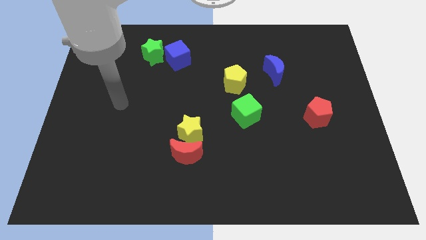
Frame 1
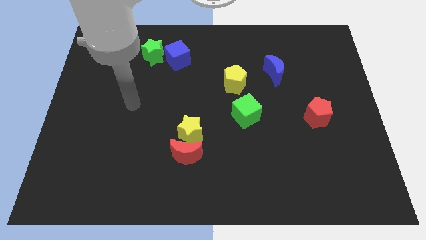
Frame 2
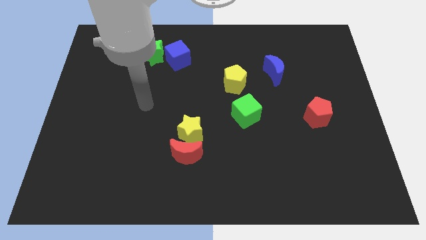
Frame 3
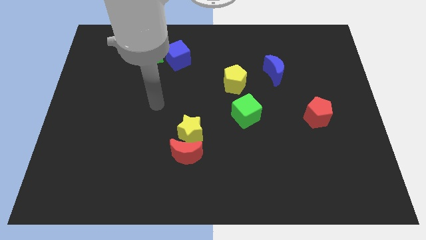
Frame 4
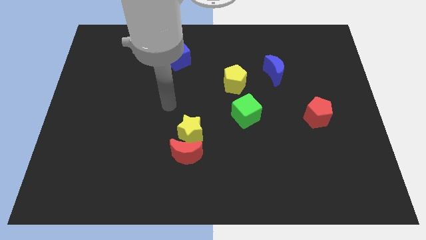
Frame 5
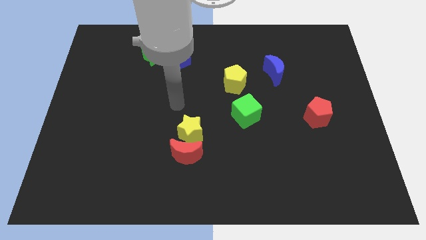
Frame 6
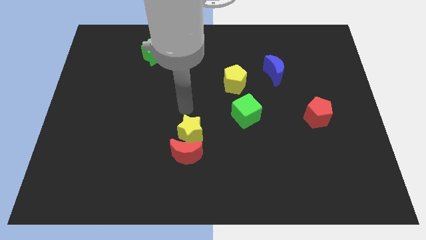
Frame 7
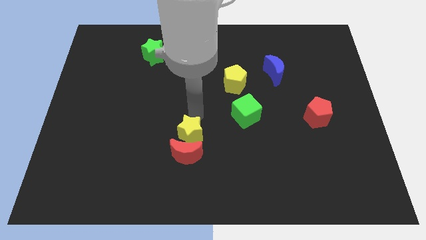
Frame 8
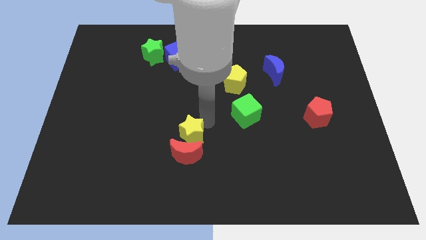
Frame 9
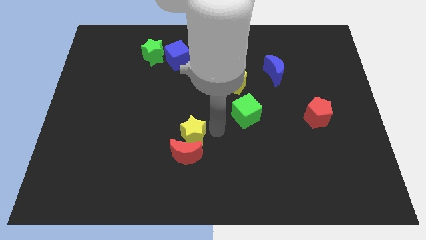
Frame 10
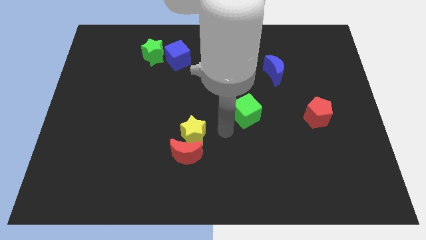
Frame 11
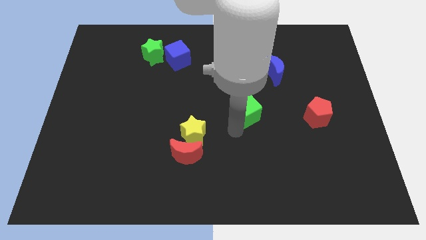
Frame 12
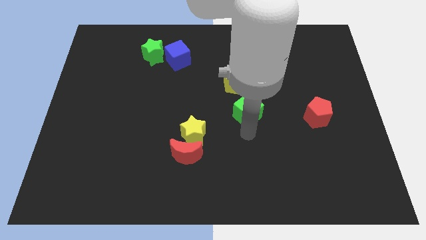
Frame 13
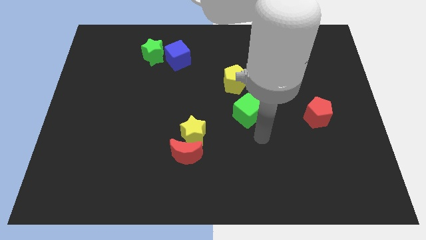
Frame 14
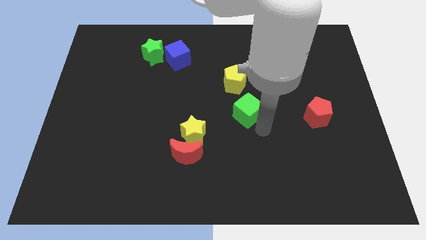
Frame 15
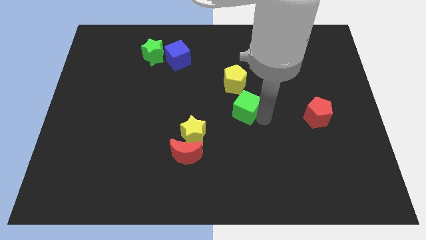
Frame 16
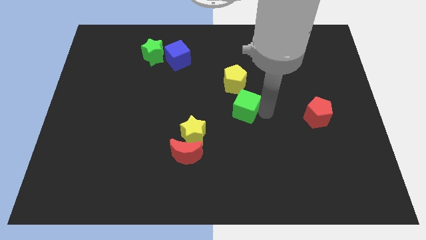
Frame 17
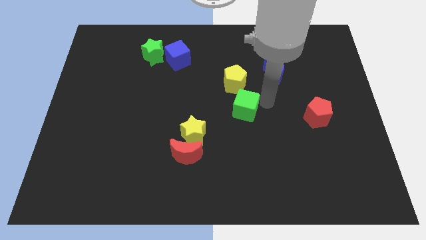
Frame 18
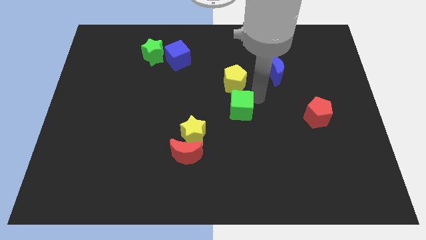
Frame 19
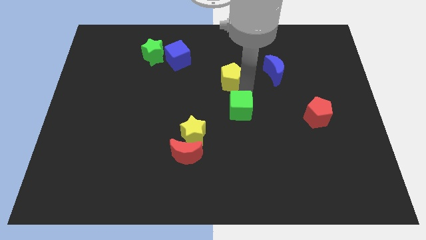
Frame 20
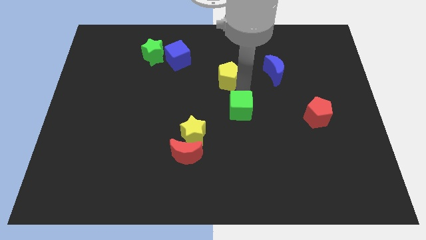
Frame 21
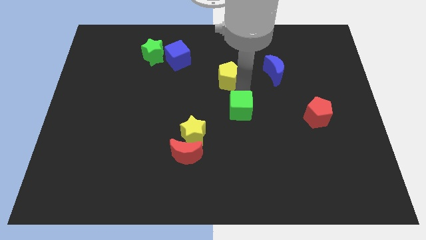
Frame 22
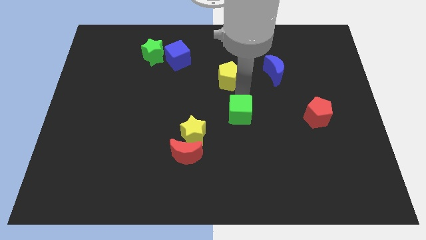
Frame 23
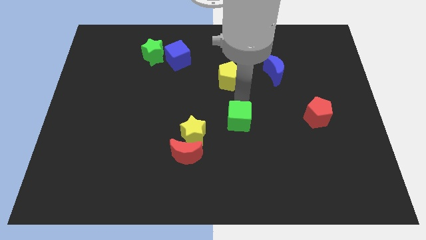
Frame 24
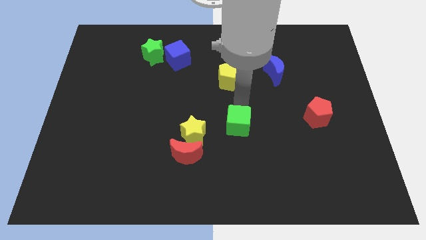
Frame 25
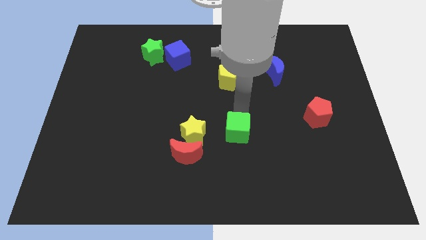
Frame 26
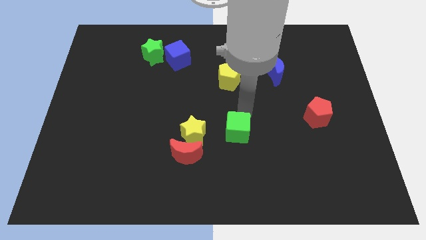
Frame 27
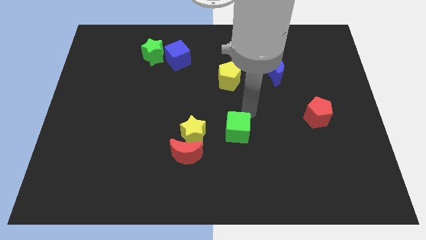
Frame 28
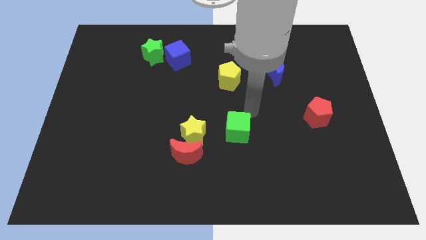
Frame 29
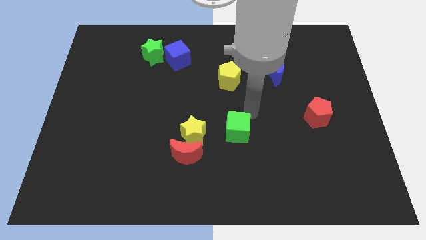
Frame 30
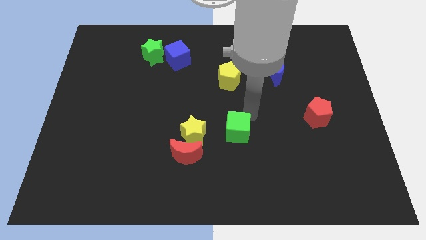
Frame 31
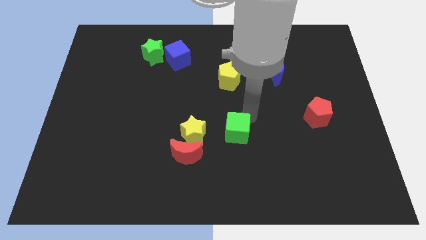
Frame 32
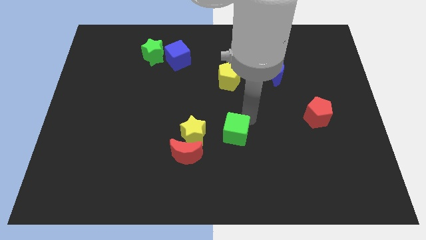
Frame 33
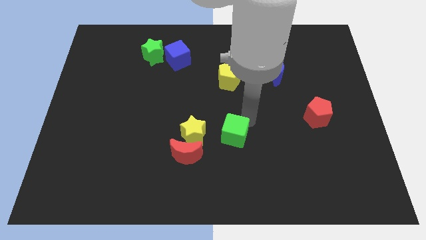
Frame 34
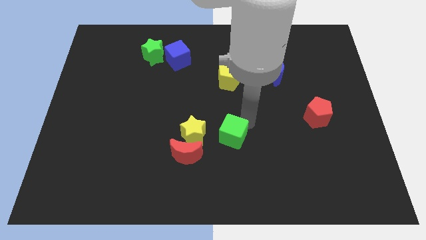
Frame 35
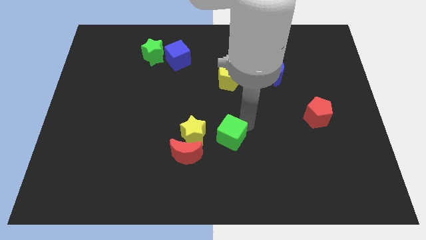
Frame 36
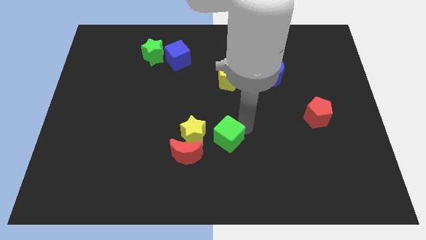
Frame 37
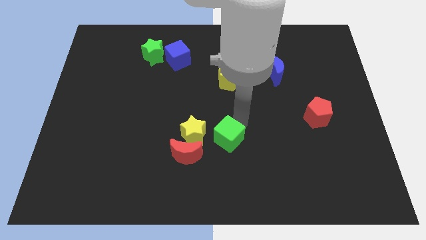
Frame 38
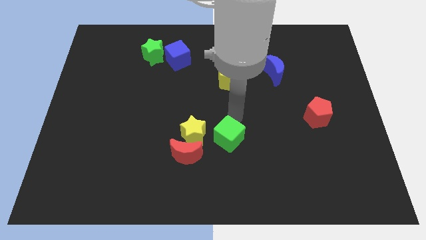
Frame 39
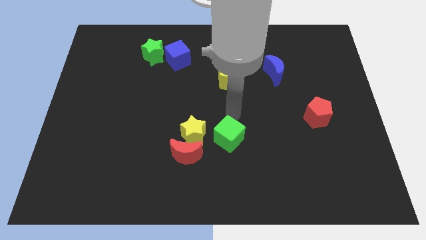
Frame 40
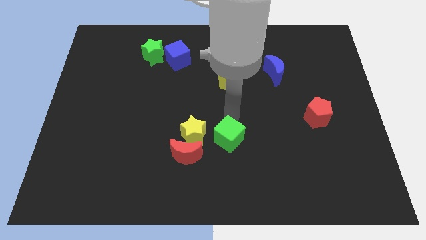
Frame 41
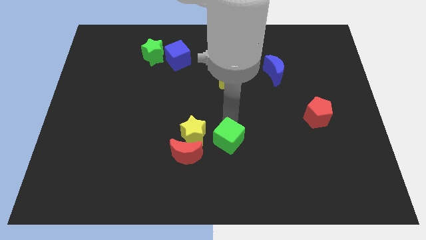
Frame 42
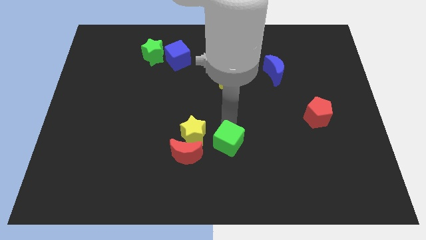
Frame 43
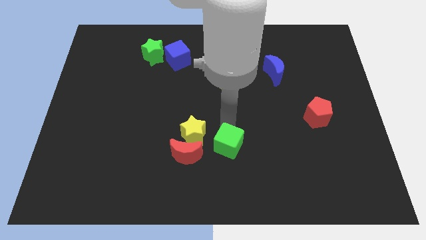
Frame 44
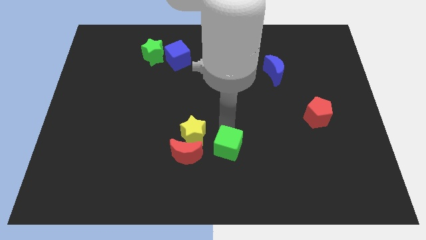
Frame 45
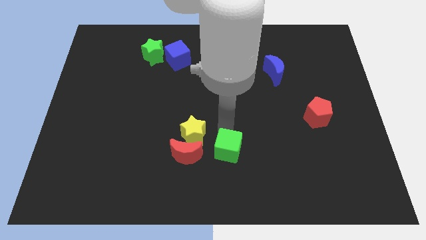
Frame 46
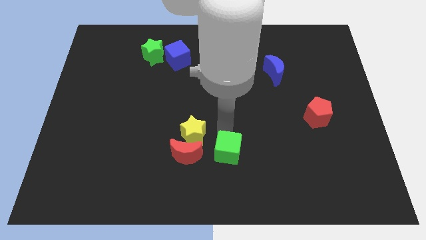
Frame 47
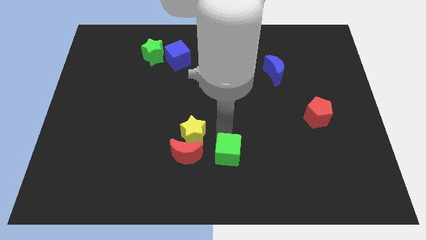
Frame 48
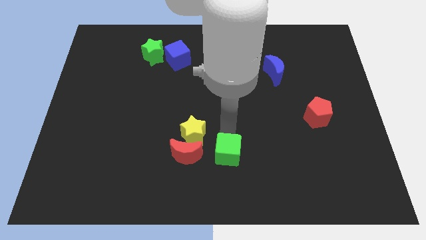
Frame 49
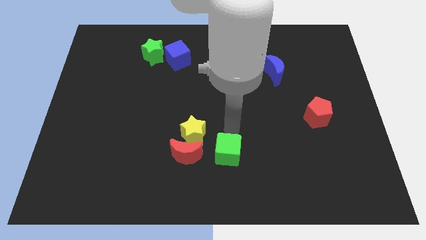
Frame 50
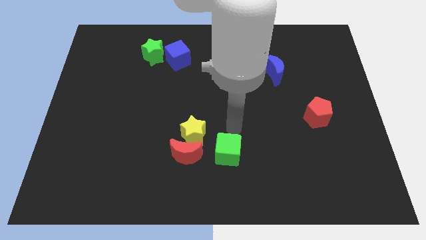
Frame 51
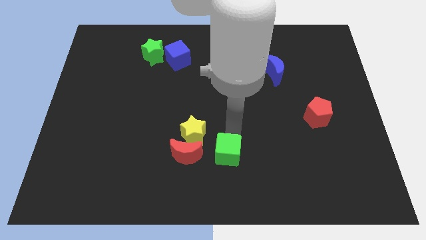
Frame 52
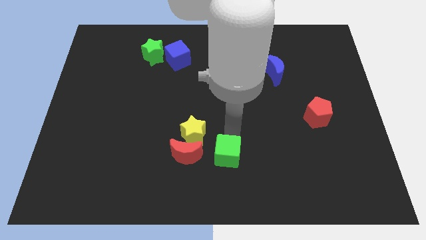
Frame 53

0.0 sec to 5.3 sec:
push the green cube to the bottom side
